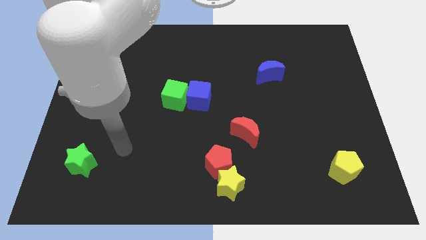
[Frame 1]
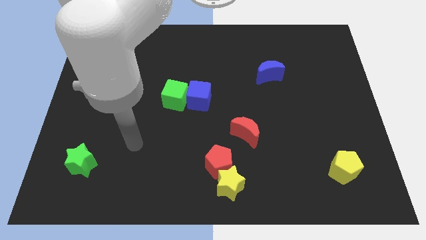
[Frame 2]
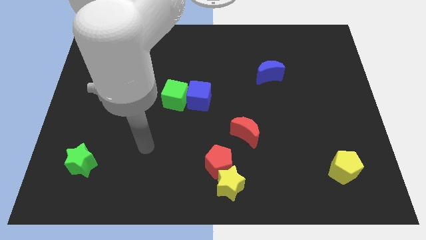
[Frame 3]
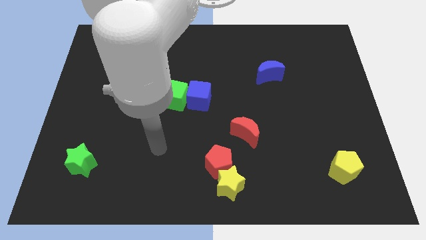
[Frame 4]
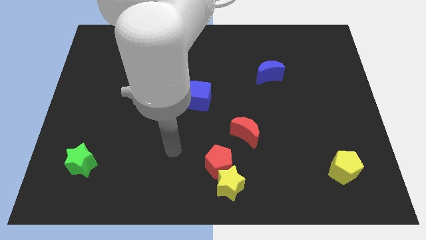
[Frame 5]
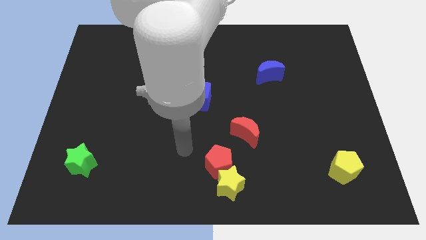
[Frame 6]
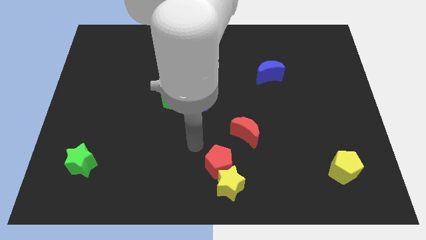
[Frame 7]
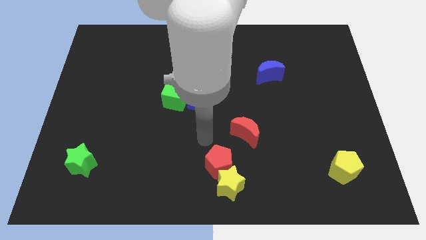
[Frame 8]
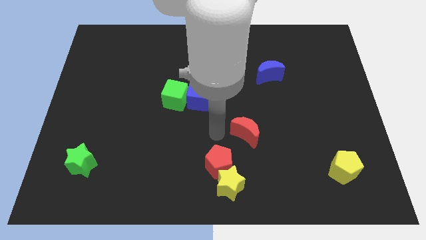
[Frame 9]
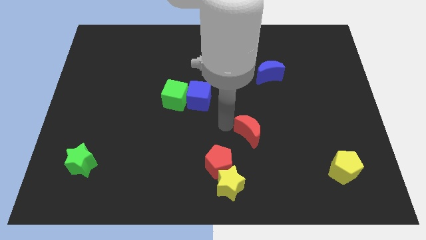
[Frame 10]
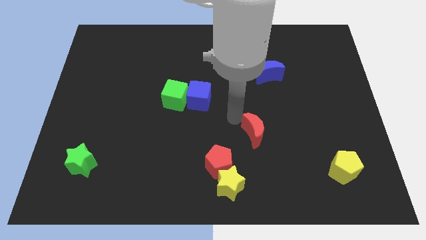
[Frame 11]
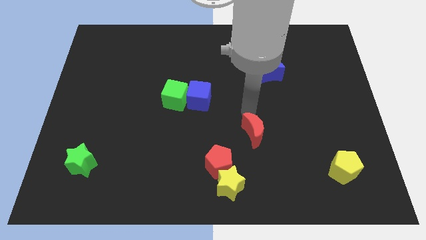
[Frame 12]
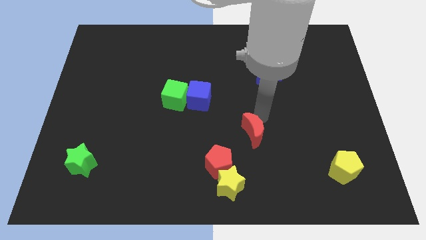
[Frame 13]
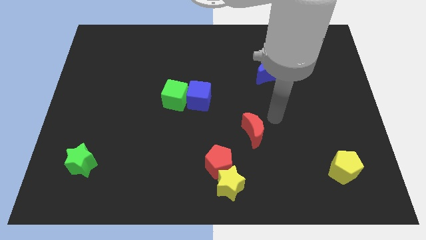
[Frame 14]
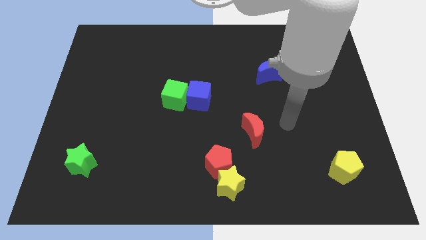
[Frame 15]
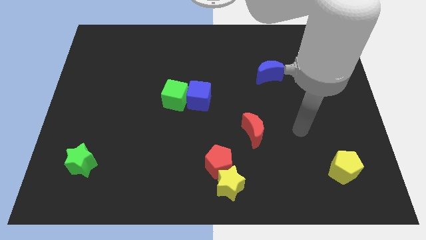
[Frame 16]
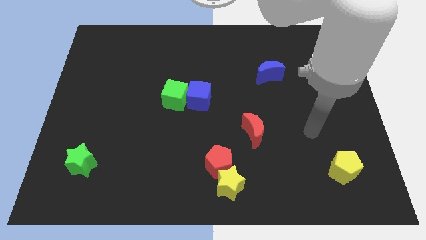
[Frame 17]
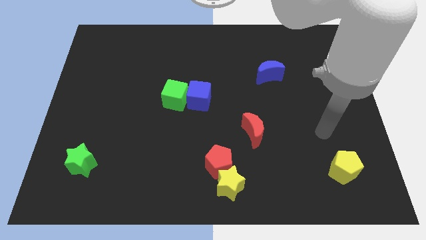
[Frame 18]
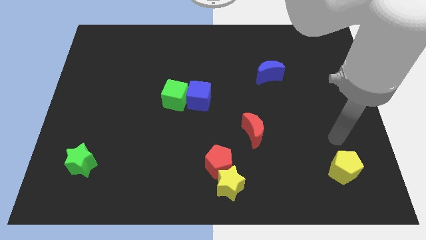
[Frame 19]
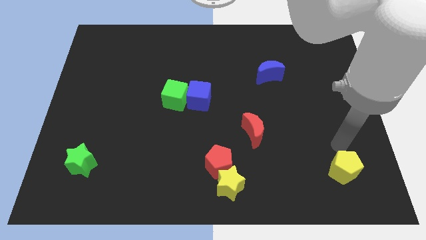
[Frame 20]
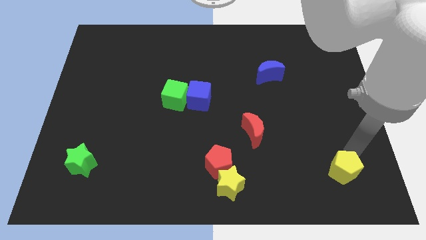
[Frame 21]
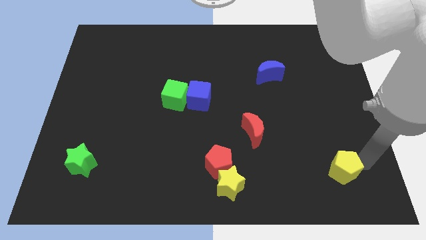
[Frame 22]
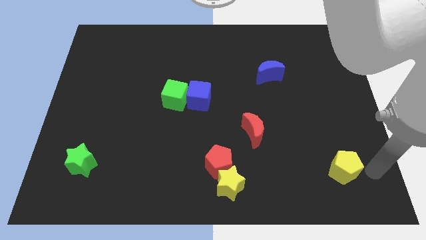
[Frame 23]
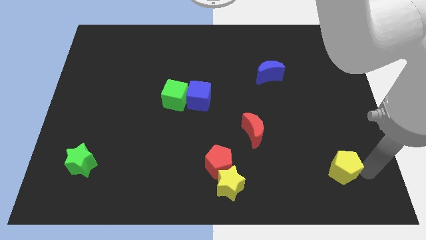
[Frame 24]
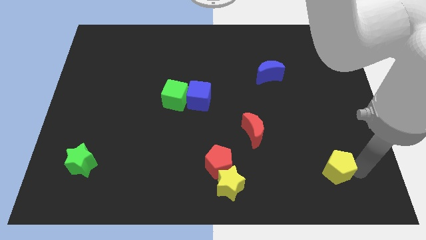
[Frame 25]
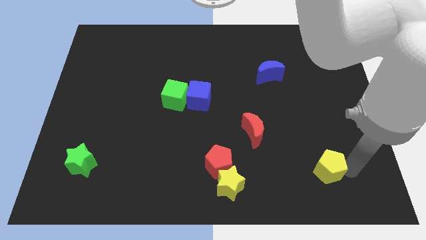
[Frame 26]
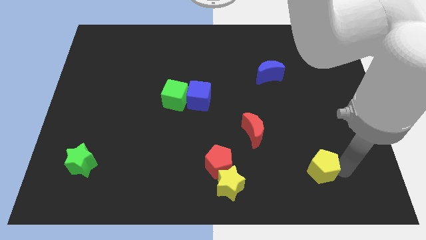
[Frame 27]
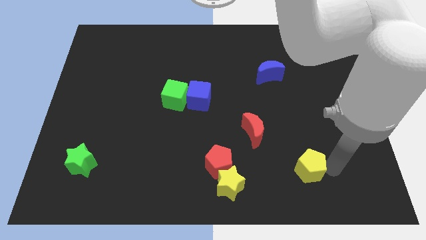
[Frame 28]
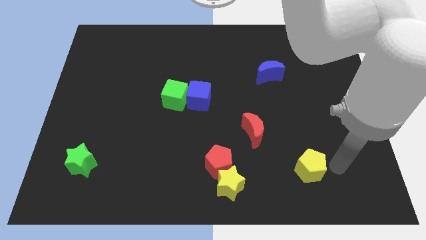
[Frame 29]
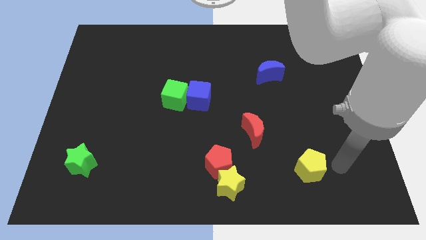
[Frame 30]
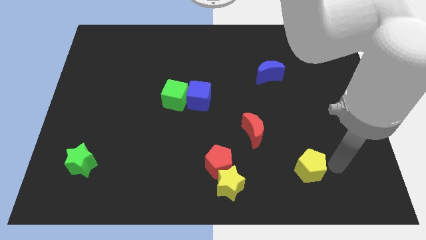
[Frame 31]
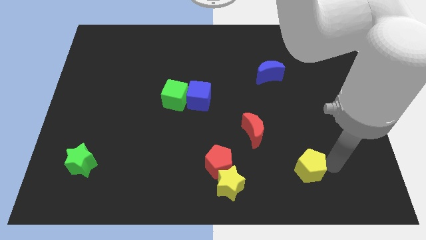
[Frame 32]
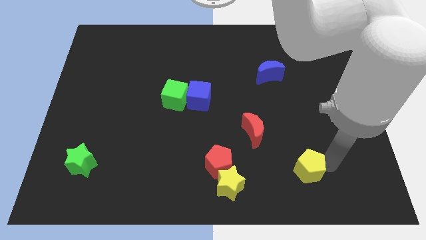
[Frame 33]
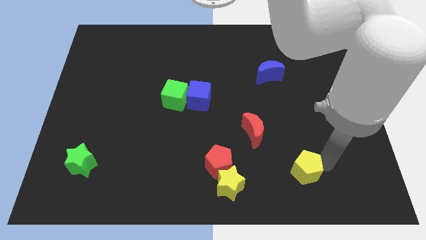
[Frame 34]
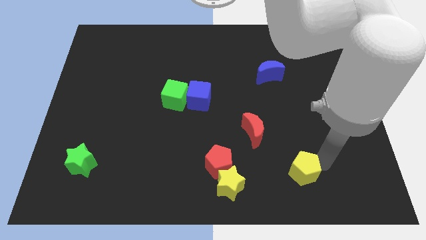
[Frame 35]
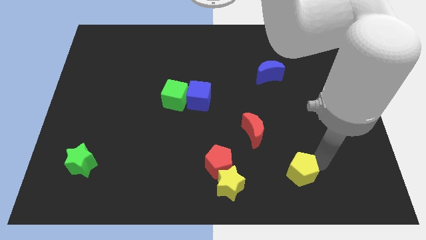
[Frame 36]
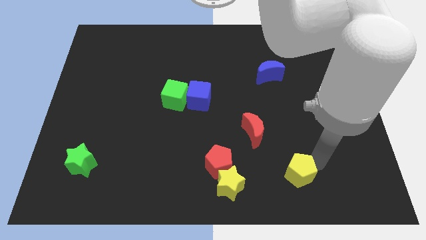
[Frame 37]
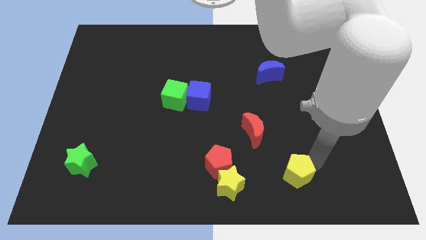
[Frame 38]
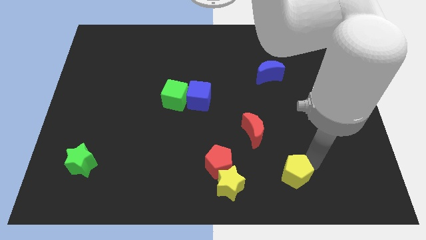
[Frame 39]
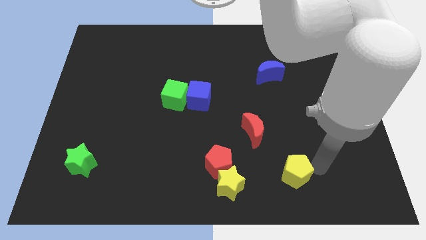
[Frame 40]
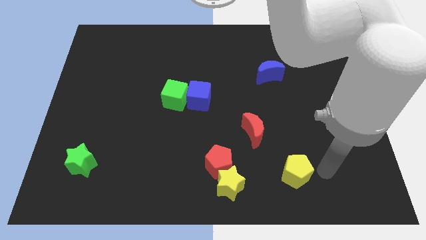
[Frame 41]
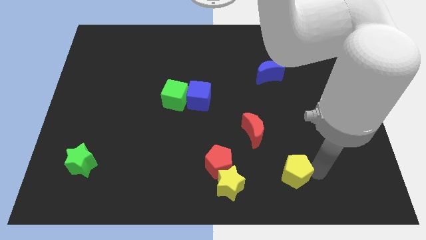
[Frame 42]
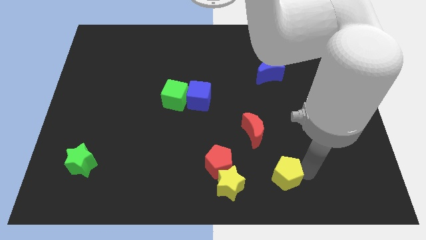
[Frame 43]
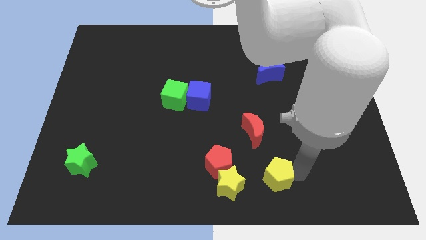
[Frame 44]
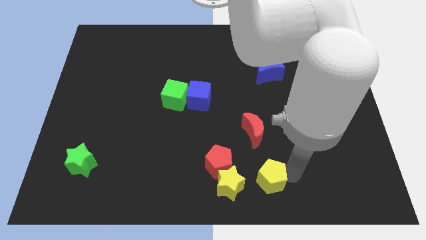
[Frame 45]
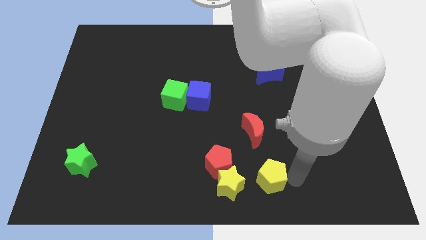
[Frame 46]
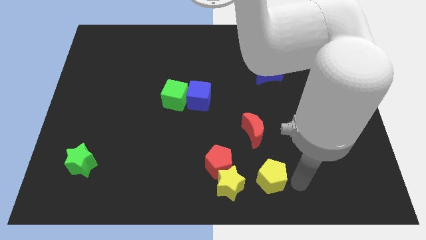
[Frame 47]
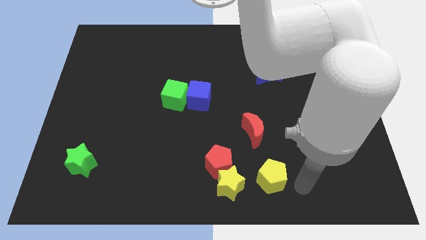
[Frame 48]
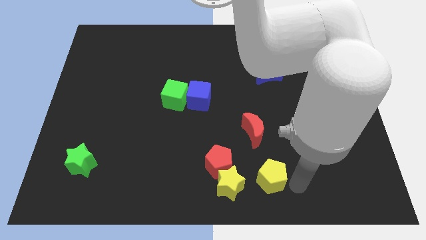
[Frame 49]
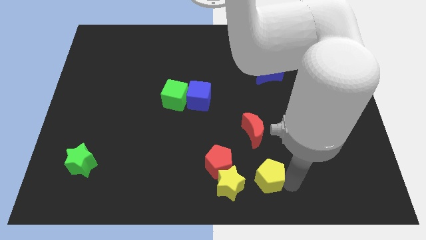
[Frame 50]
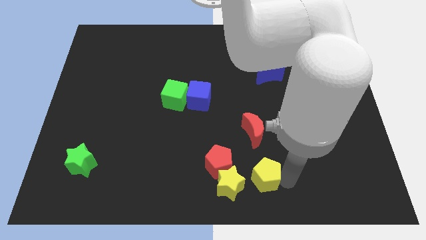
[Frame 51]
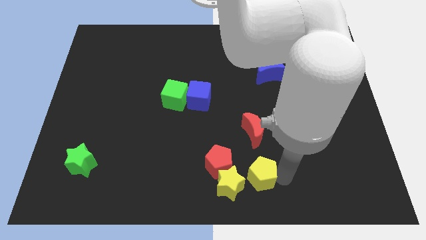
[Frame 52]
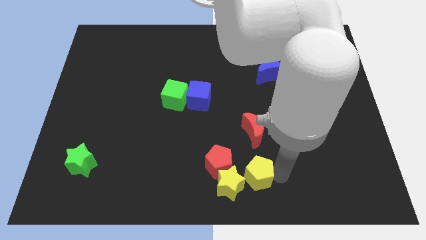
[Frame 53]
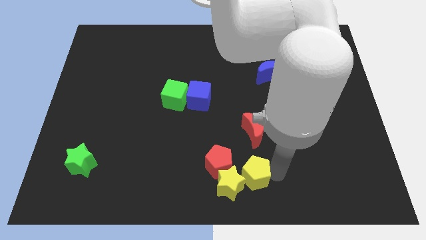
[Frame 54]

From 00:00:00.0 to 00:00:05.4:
move the yellow pentagon close to the yellow star

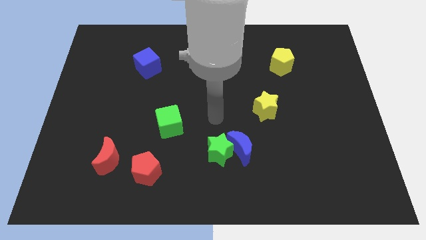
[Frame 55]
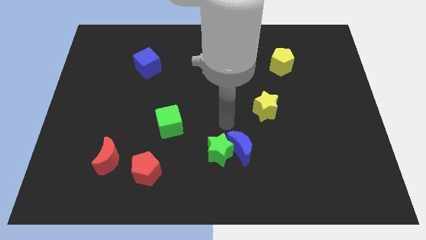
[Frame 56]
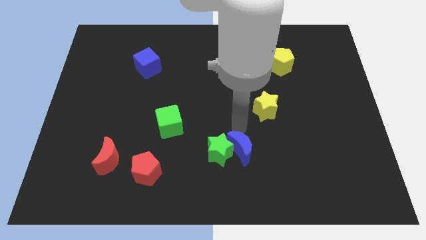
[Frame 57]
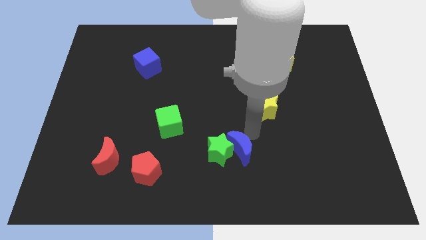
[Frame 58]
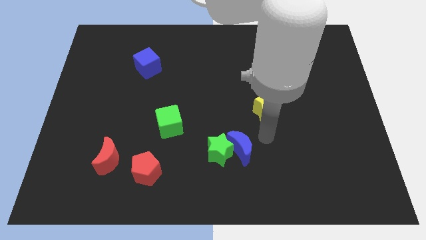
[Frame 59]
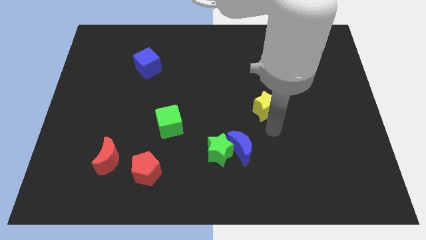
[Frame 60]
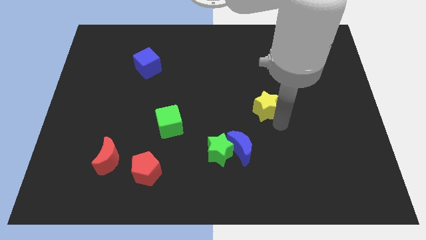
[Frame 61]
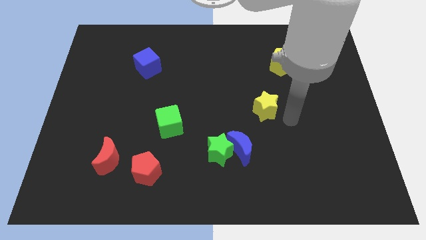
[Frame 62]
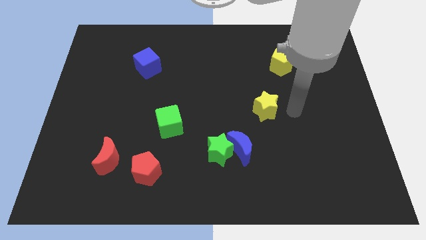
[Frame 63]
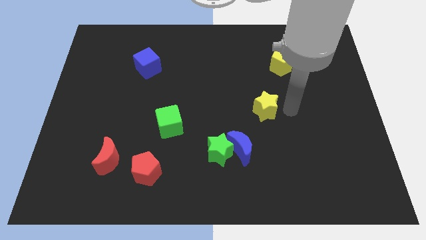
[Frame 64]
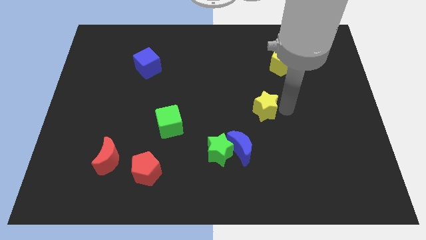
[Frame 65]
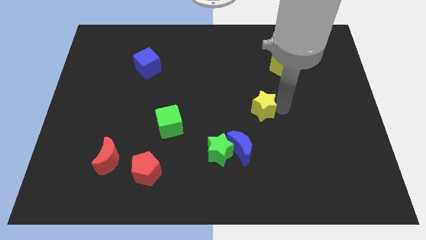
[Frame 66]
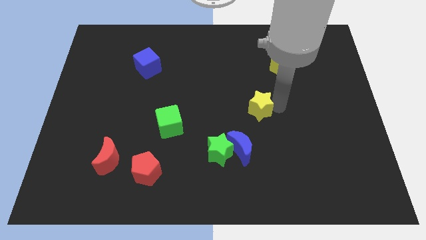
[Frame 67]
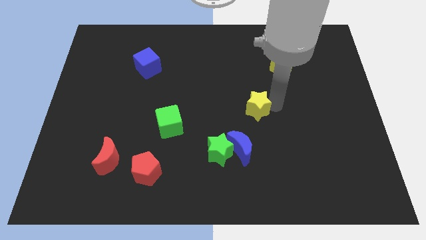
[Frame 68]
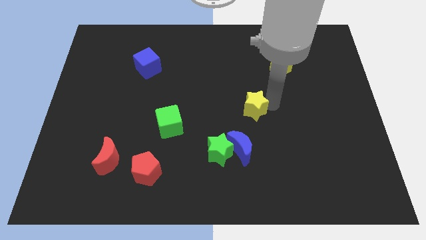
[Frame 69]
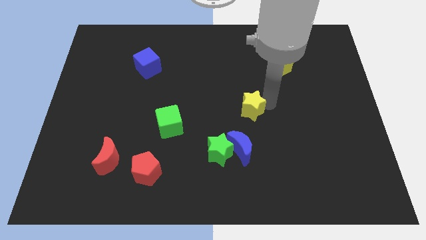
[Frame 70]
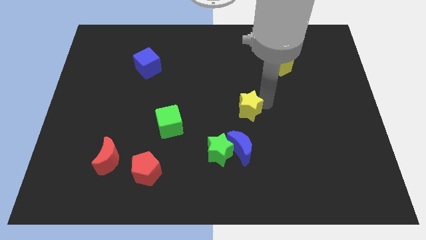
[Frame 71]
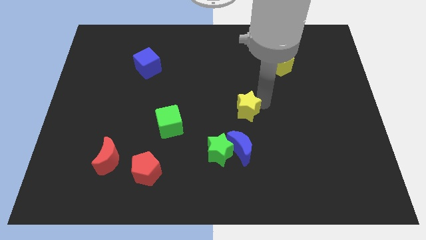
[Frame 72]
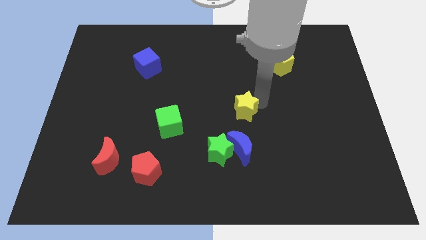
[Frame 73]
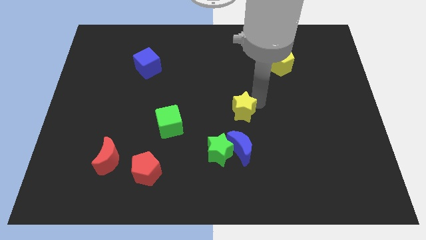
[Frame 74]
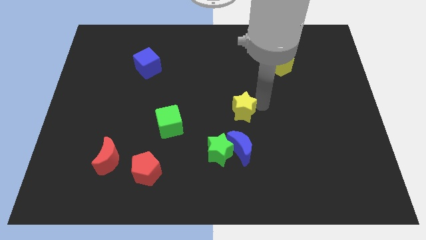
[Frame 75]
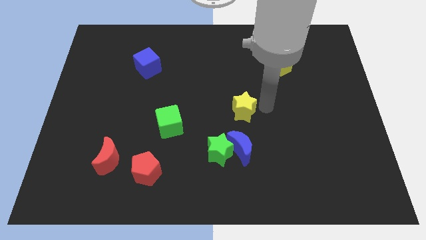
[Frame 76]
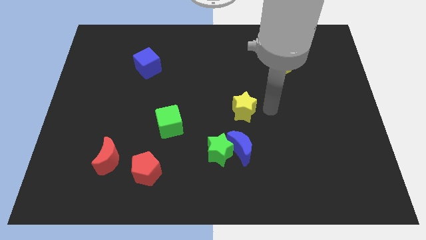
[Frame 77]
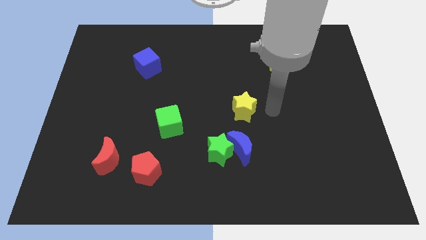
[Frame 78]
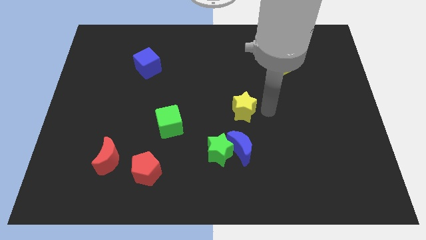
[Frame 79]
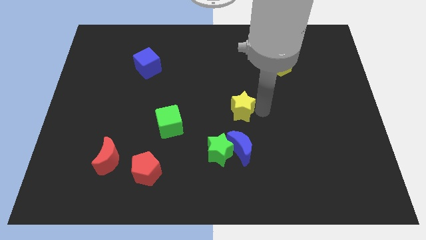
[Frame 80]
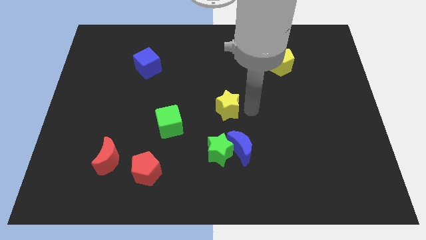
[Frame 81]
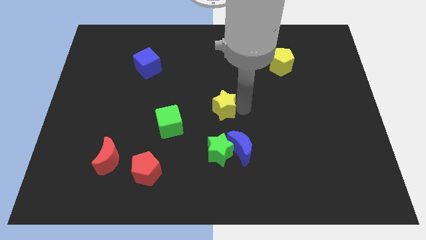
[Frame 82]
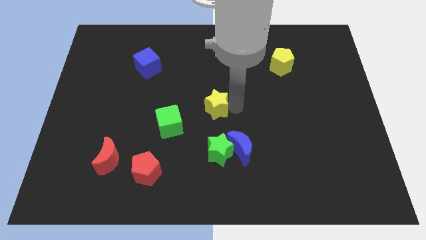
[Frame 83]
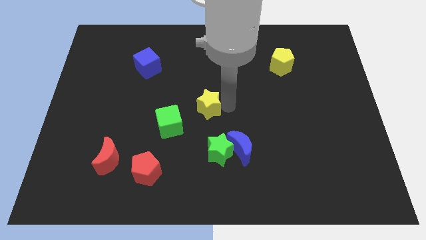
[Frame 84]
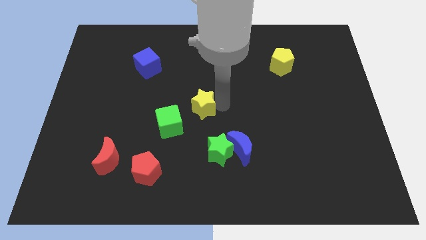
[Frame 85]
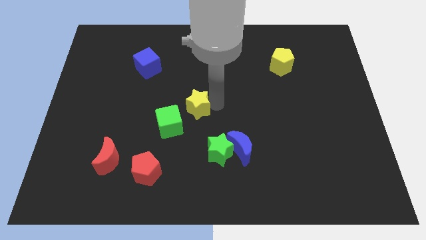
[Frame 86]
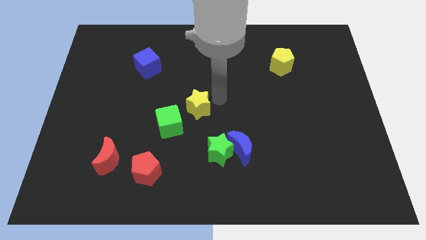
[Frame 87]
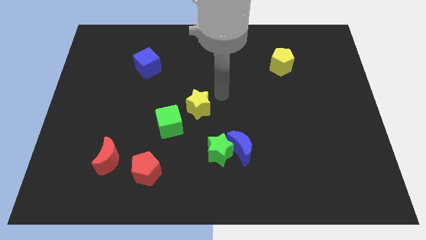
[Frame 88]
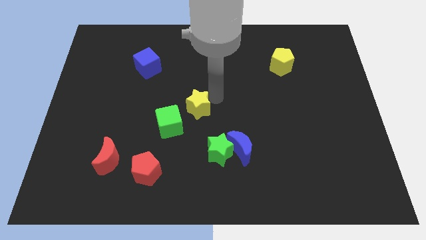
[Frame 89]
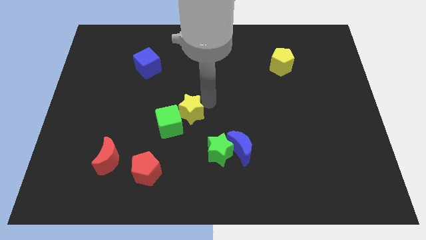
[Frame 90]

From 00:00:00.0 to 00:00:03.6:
move the yellow star close to the green cube
